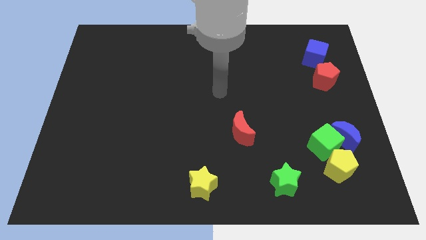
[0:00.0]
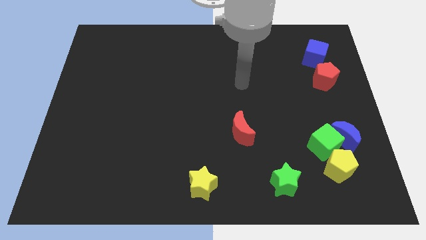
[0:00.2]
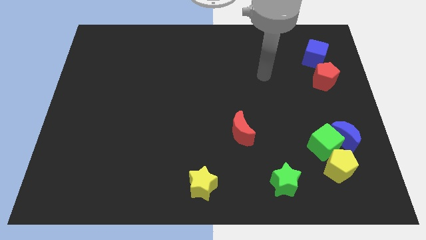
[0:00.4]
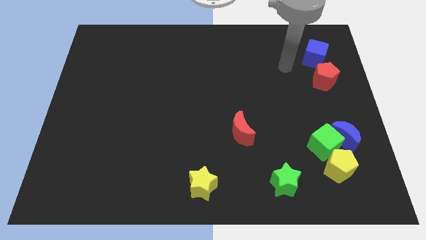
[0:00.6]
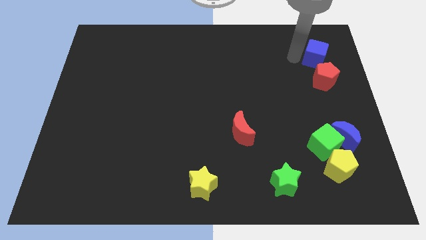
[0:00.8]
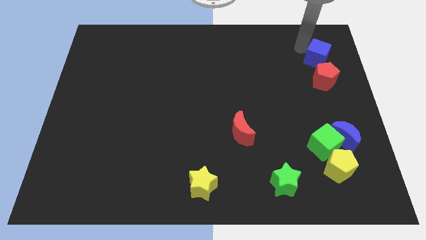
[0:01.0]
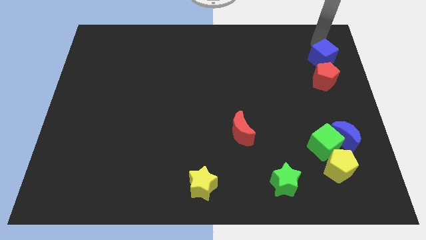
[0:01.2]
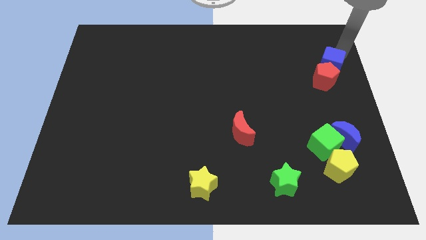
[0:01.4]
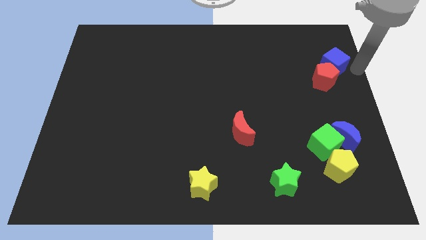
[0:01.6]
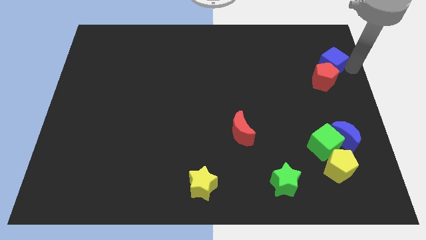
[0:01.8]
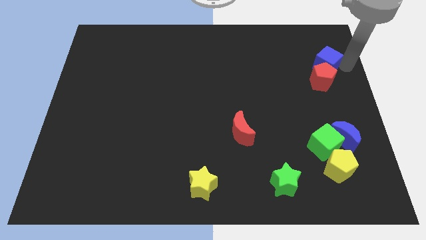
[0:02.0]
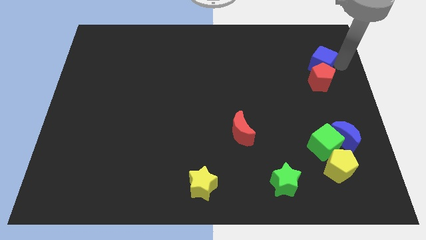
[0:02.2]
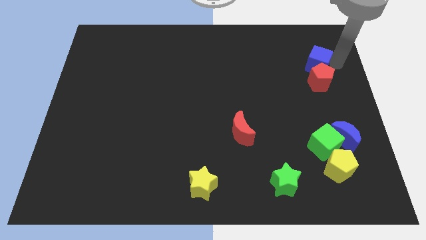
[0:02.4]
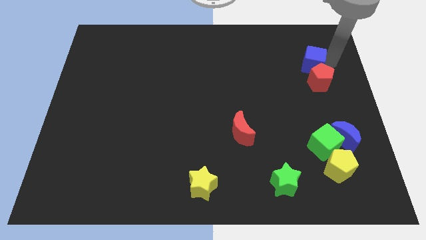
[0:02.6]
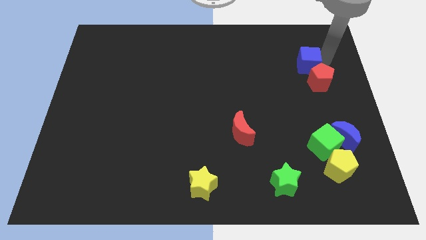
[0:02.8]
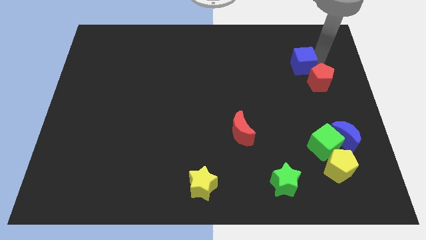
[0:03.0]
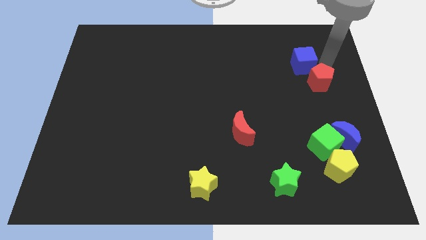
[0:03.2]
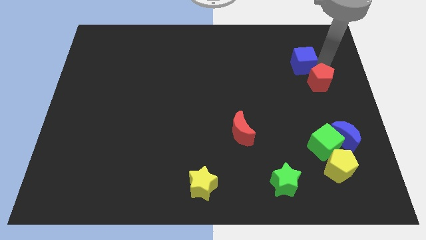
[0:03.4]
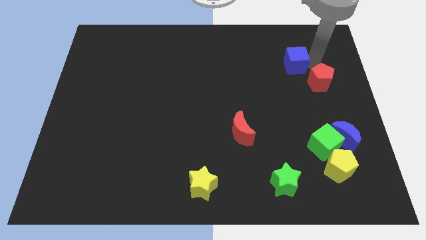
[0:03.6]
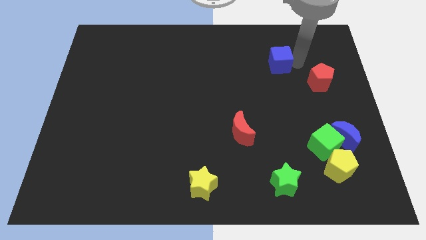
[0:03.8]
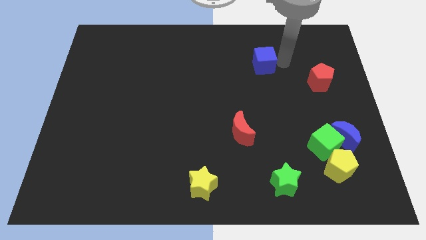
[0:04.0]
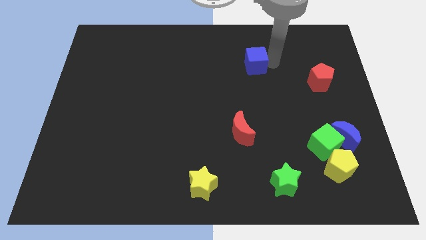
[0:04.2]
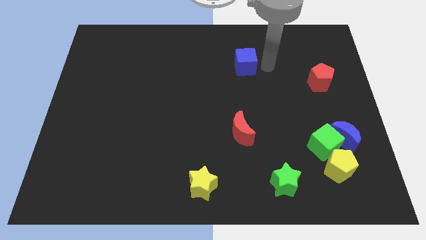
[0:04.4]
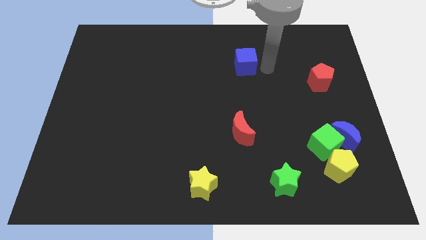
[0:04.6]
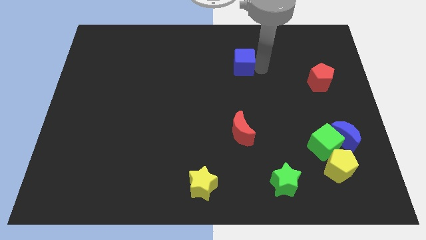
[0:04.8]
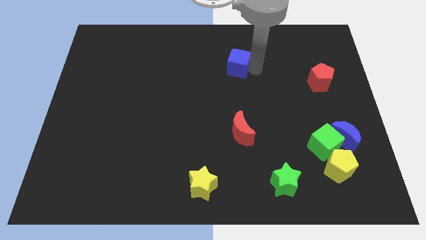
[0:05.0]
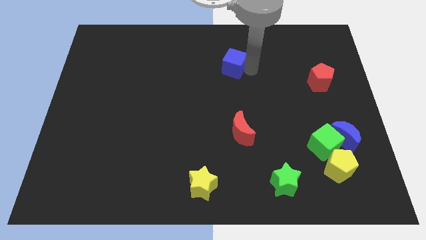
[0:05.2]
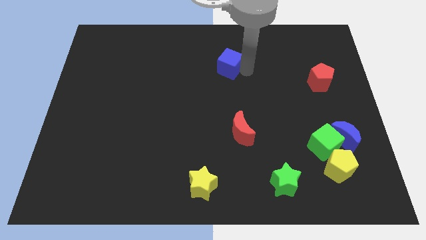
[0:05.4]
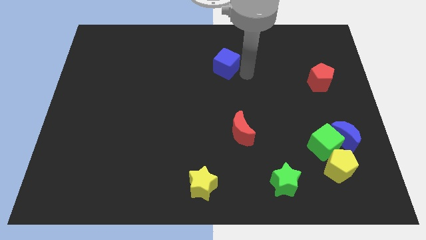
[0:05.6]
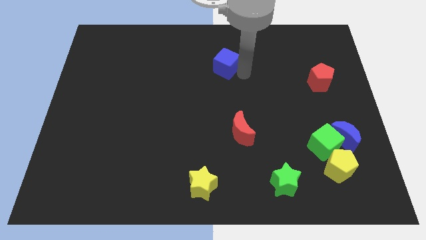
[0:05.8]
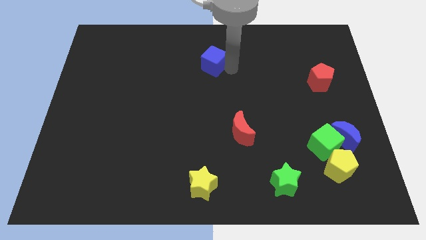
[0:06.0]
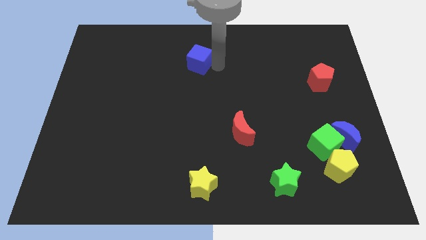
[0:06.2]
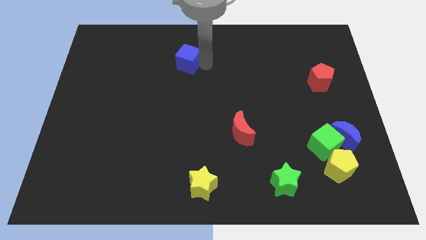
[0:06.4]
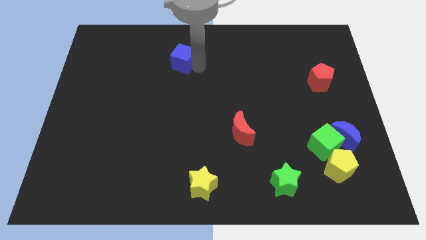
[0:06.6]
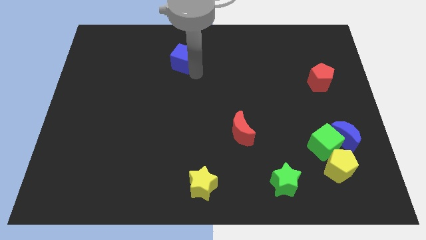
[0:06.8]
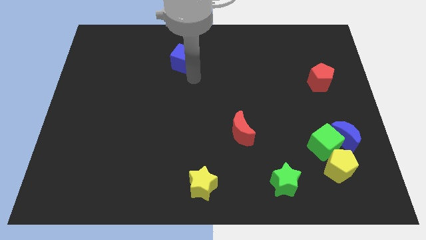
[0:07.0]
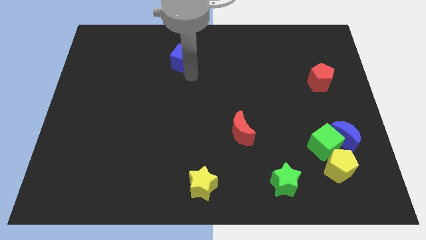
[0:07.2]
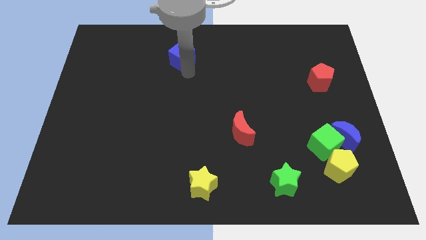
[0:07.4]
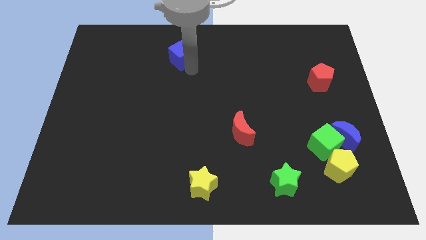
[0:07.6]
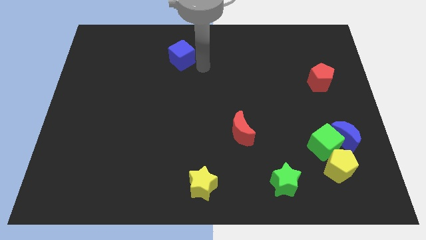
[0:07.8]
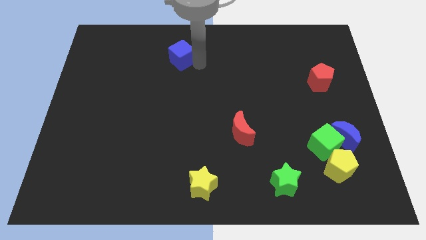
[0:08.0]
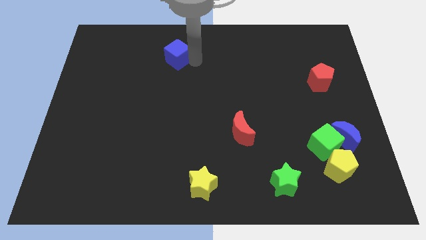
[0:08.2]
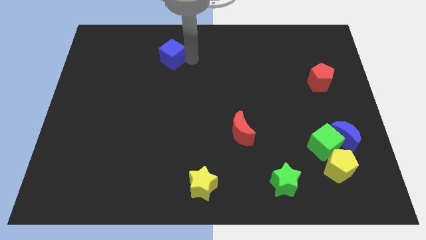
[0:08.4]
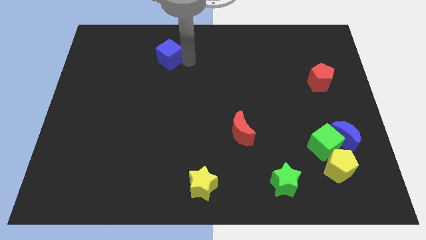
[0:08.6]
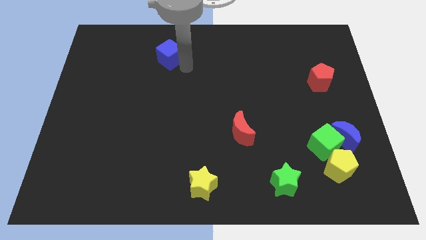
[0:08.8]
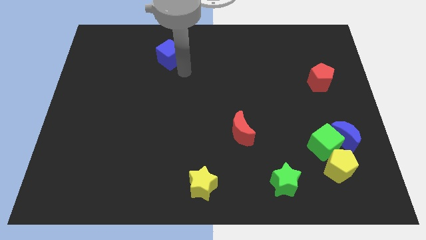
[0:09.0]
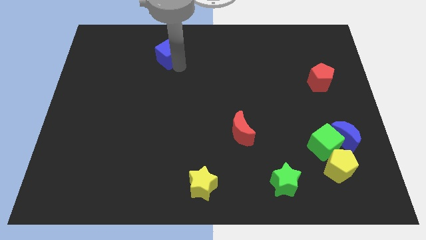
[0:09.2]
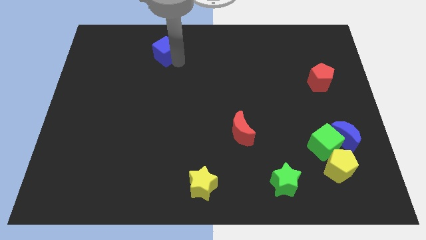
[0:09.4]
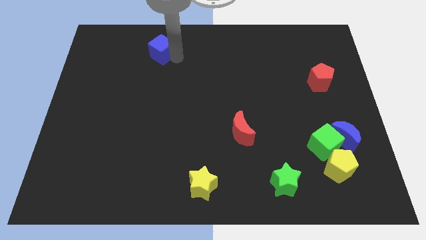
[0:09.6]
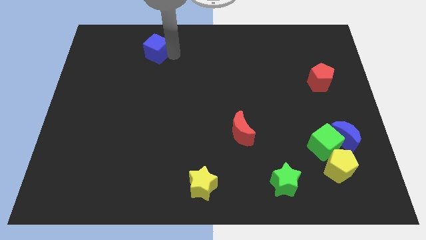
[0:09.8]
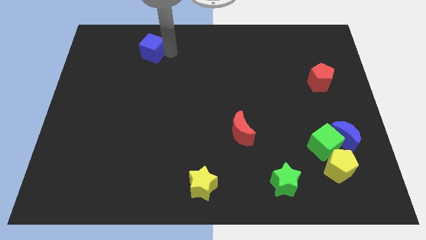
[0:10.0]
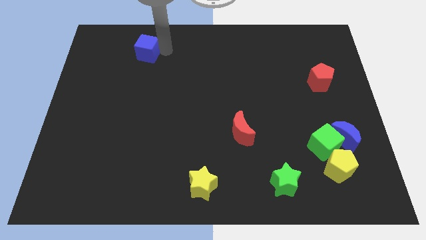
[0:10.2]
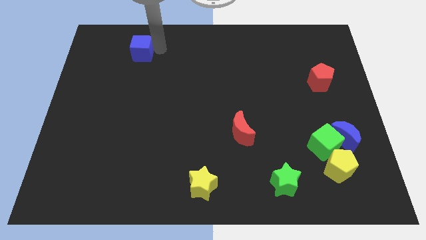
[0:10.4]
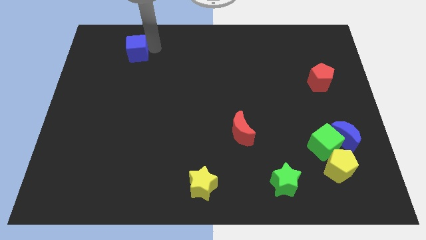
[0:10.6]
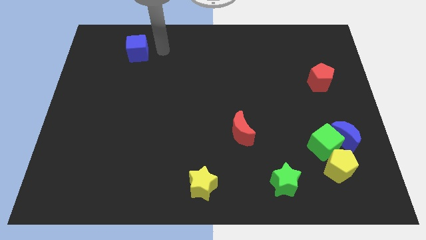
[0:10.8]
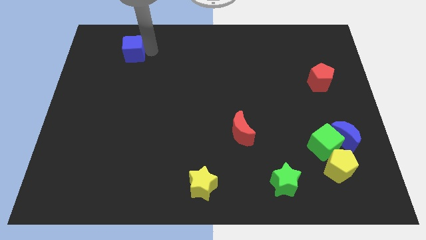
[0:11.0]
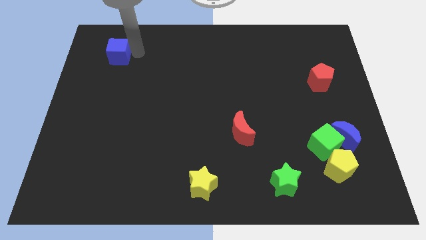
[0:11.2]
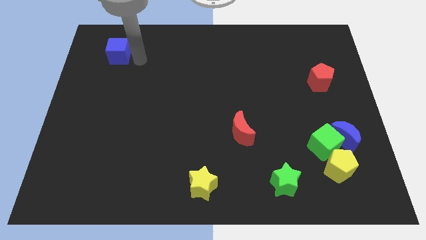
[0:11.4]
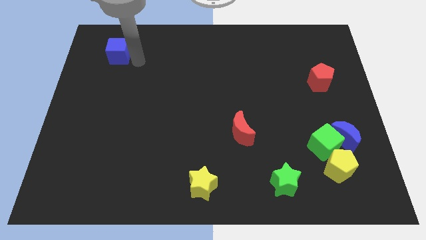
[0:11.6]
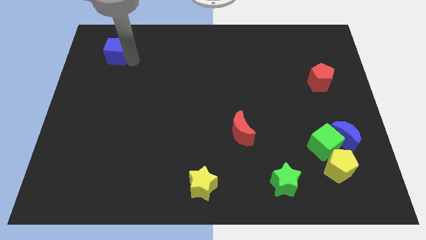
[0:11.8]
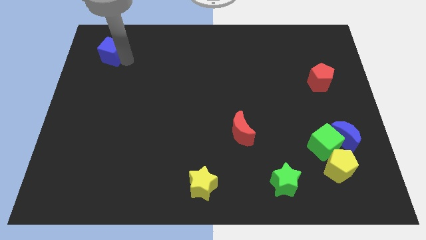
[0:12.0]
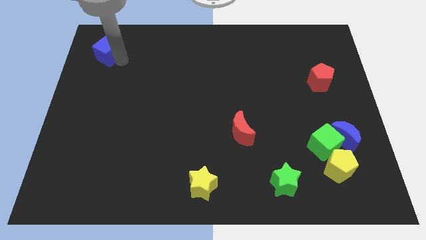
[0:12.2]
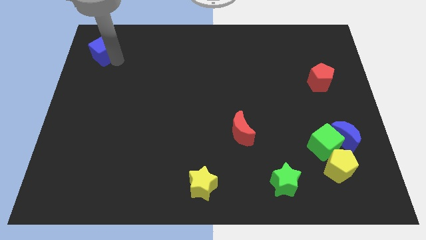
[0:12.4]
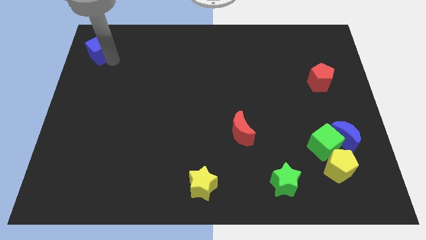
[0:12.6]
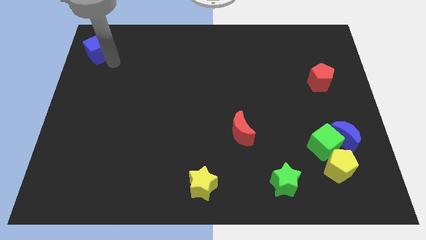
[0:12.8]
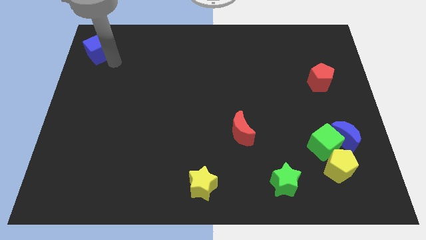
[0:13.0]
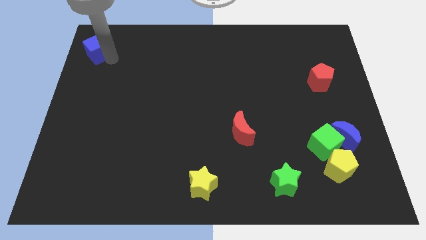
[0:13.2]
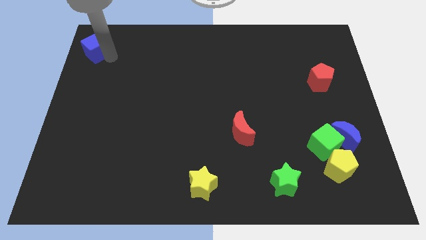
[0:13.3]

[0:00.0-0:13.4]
put the blue cube to the top left
